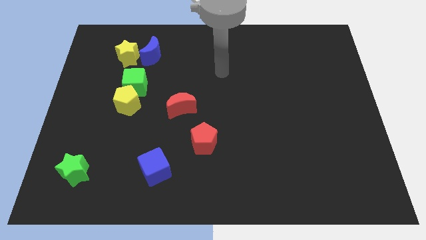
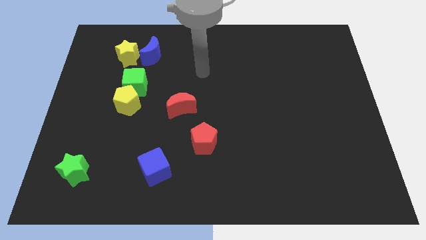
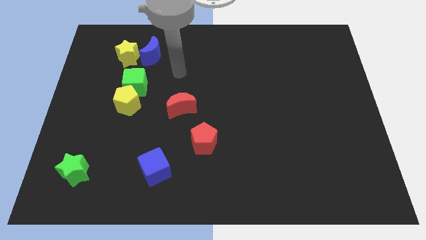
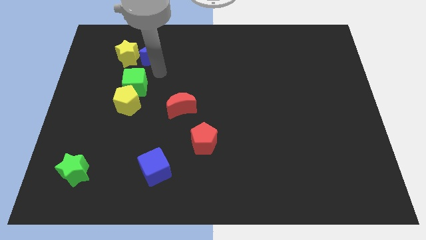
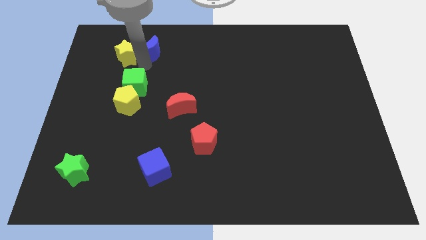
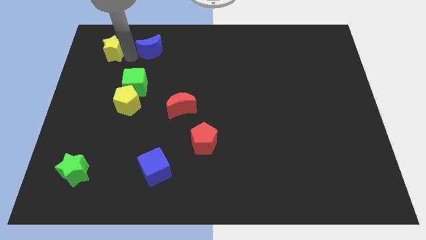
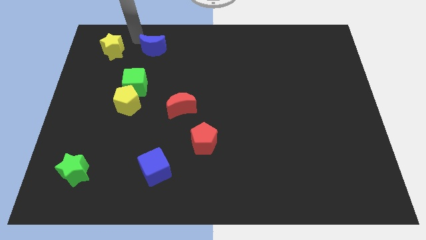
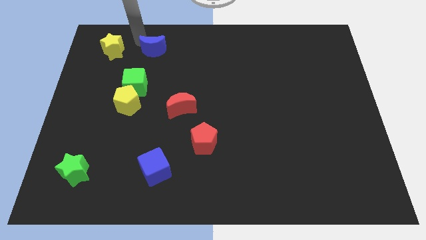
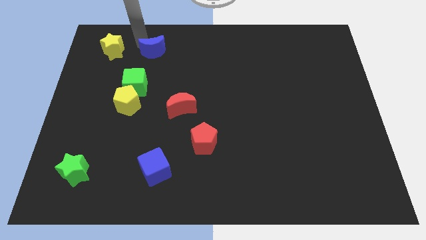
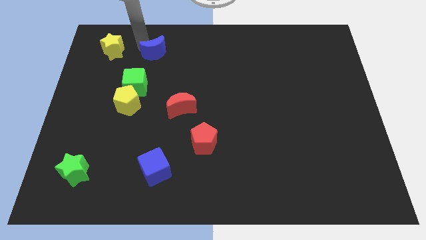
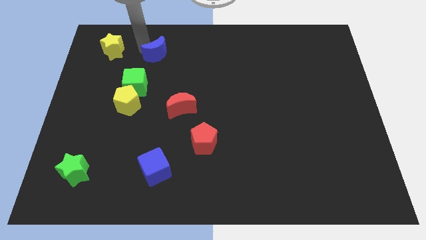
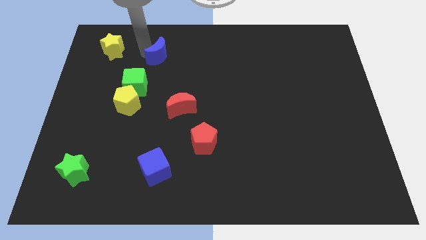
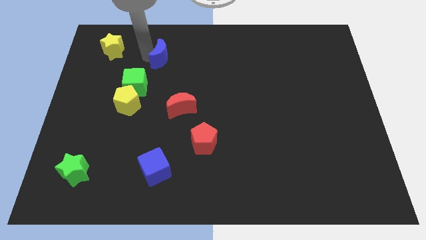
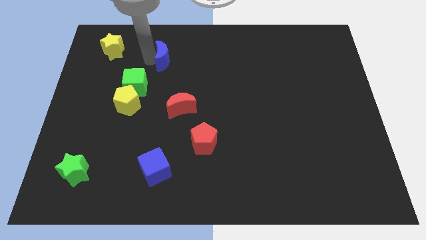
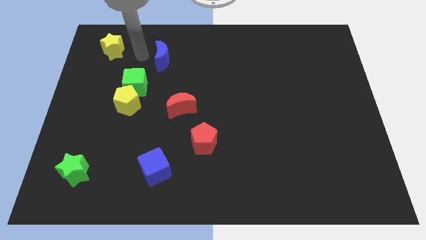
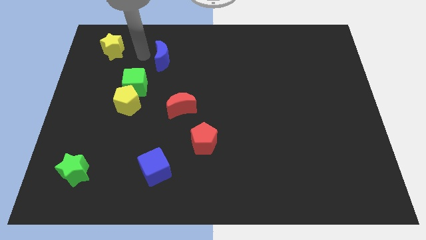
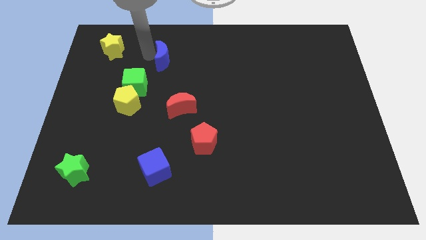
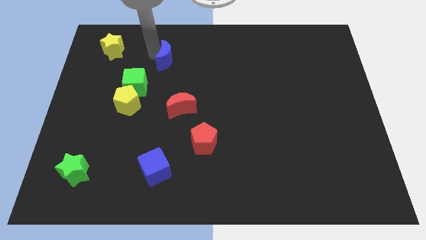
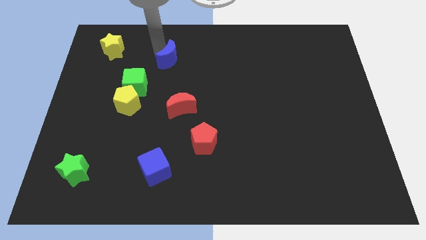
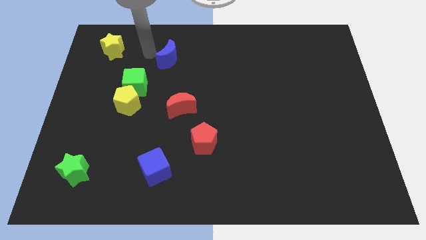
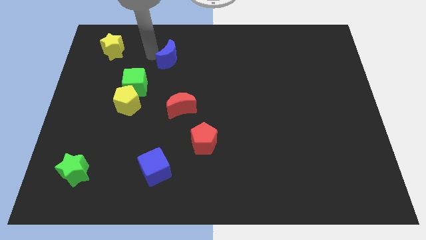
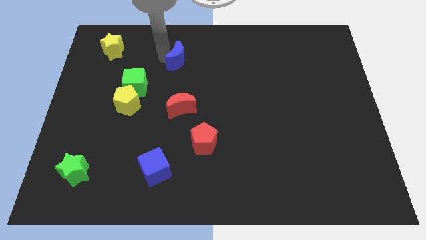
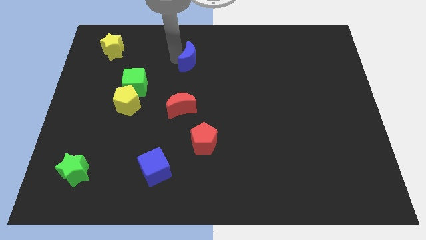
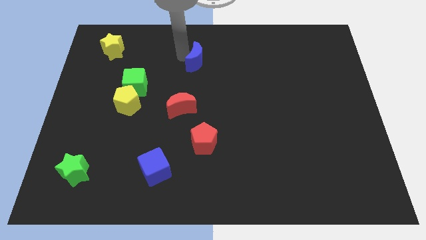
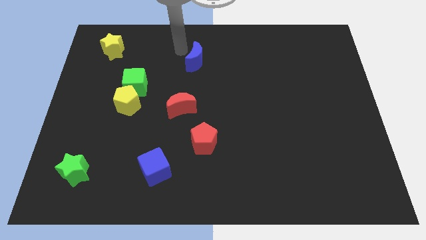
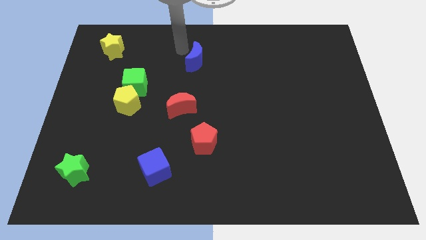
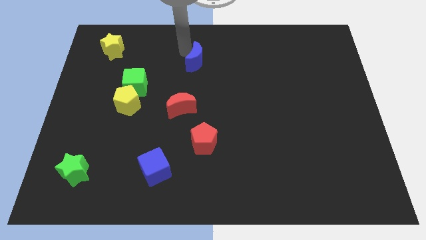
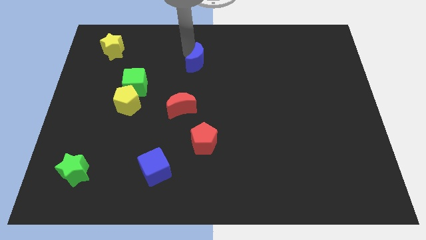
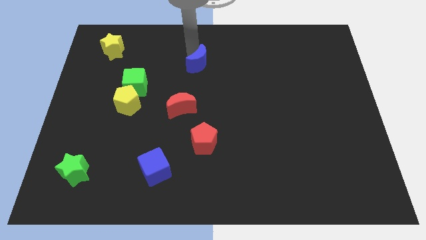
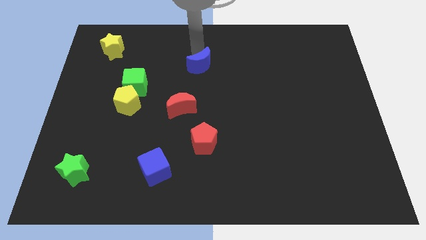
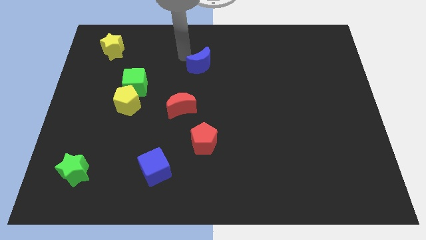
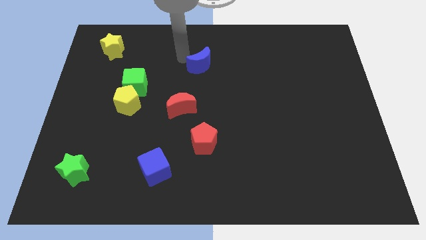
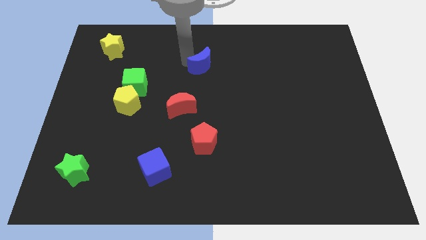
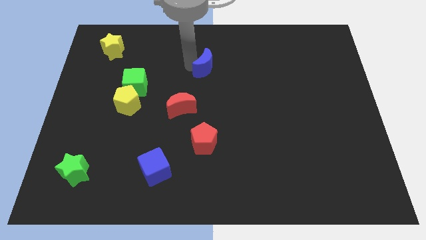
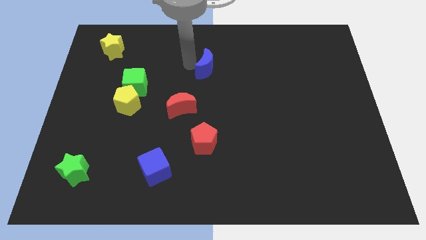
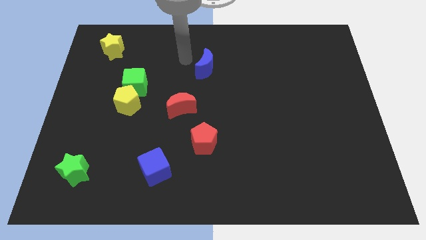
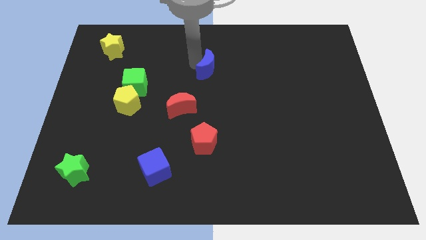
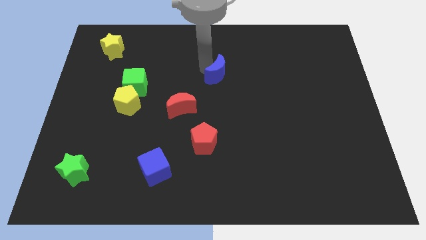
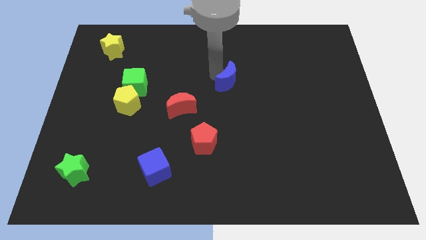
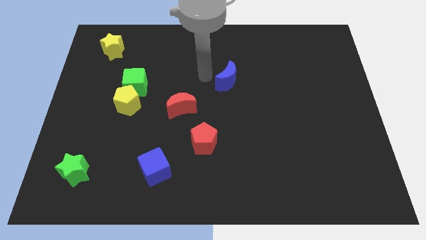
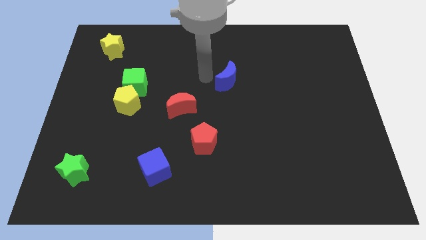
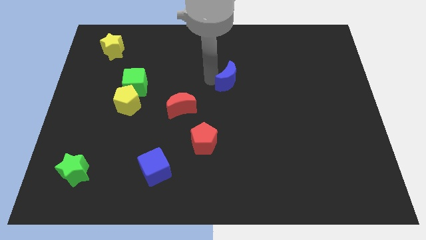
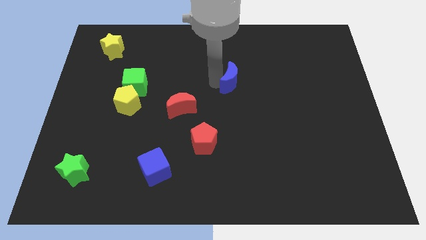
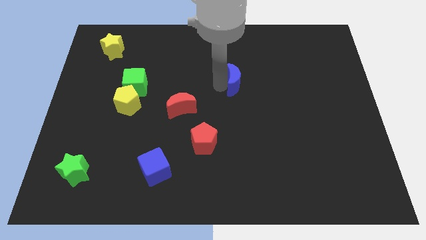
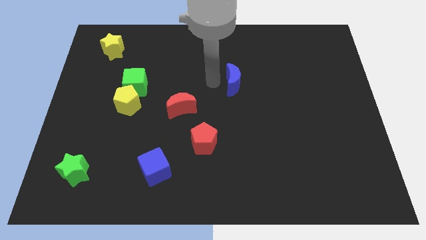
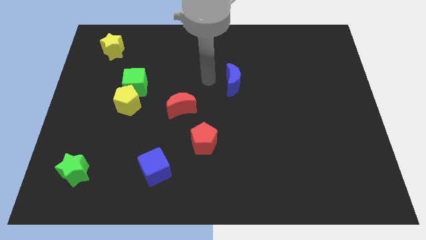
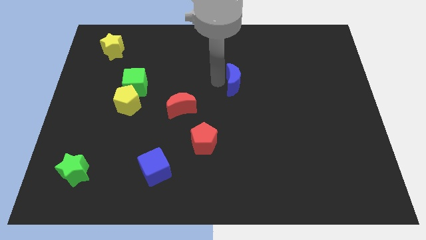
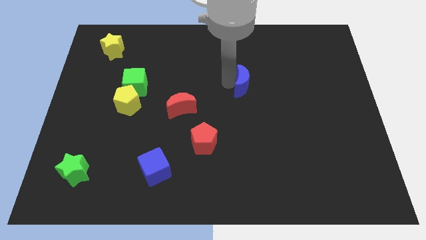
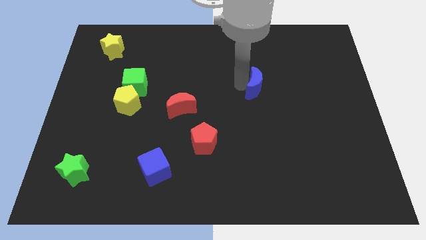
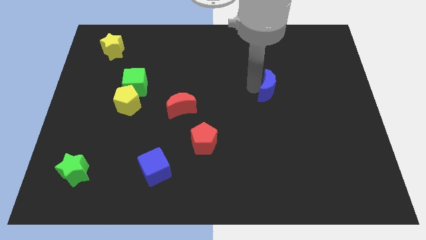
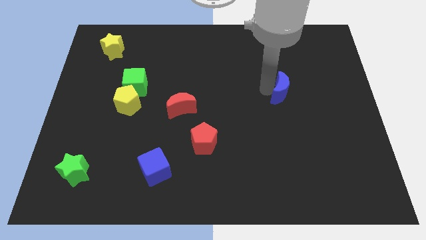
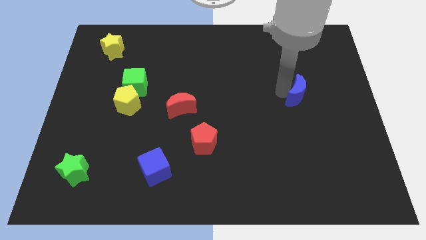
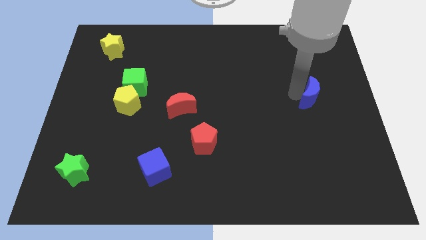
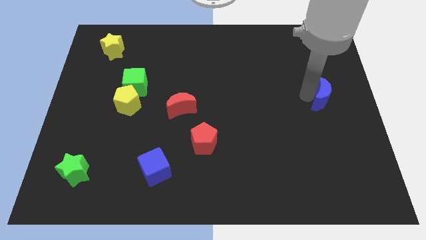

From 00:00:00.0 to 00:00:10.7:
move the blue moon to the right side of the board

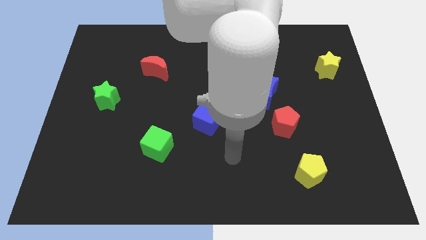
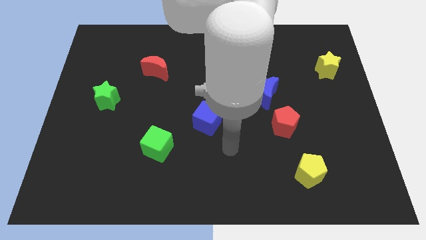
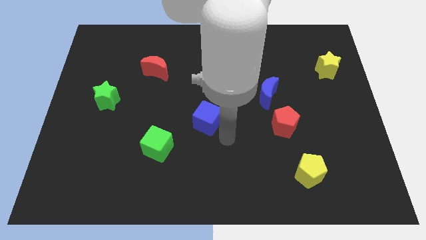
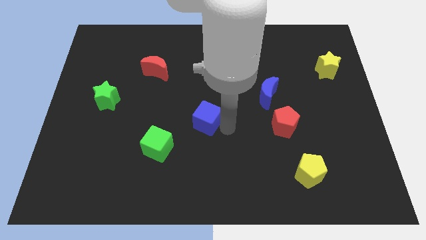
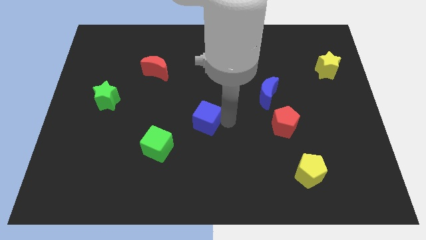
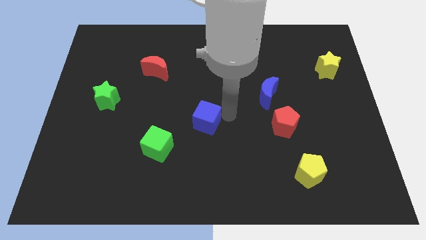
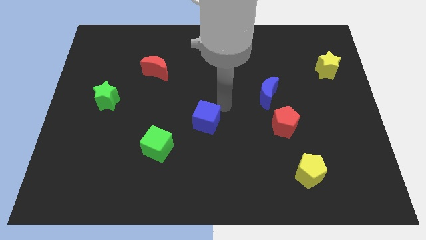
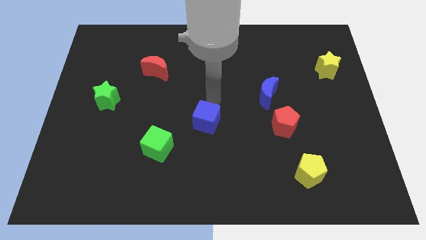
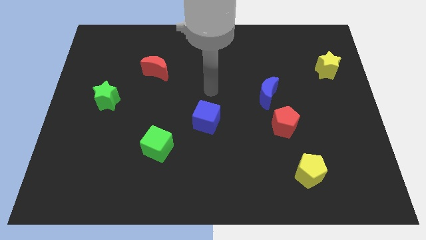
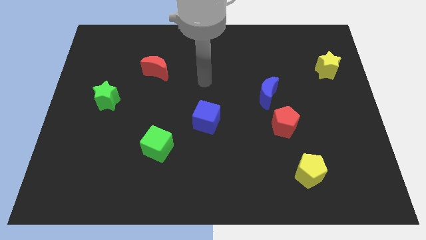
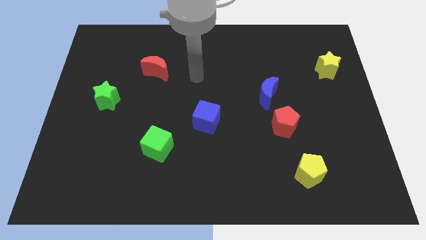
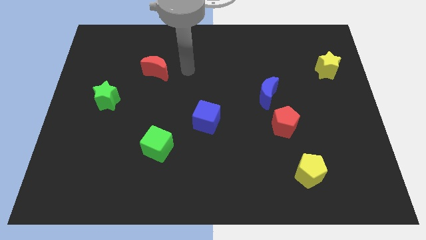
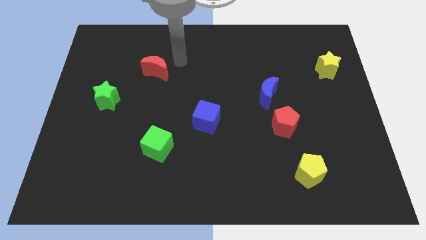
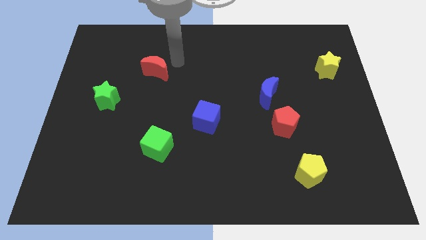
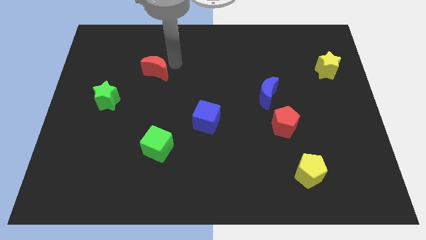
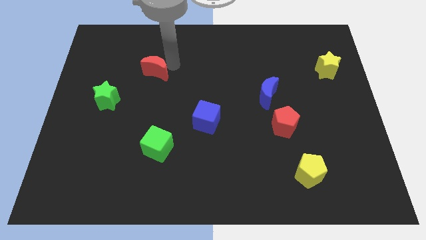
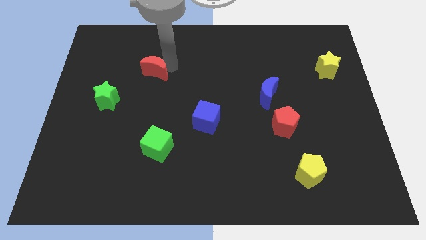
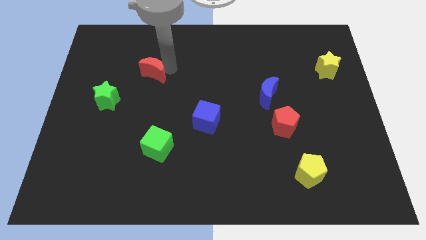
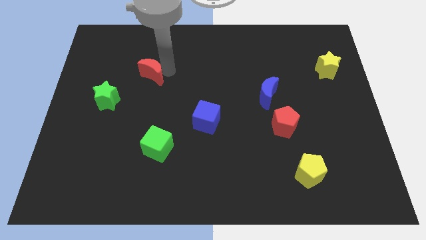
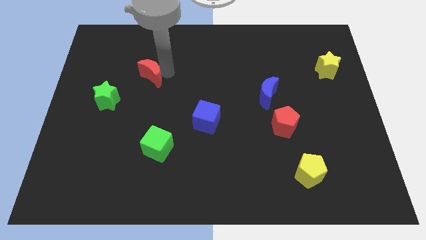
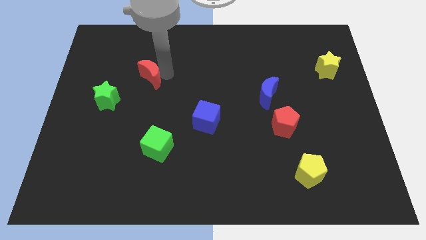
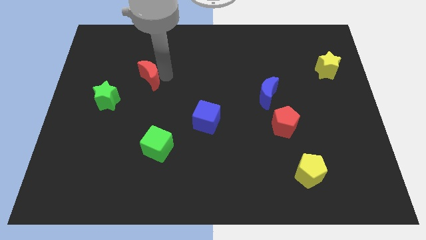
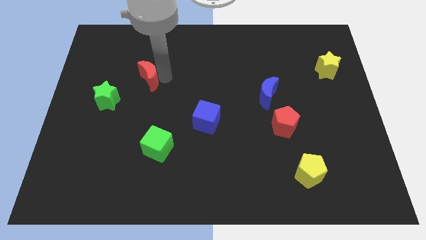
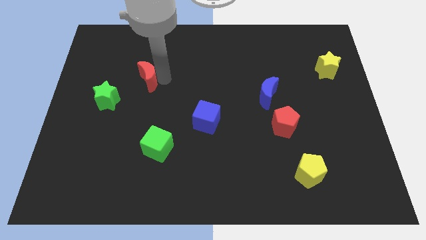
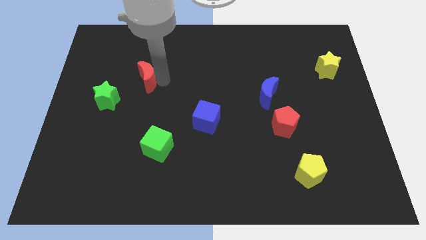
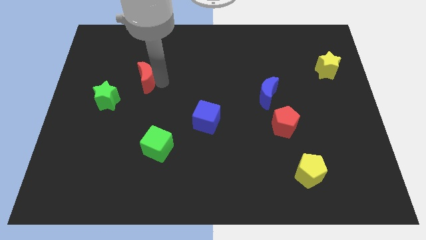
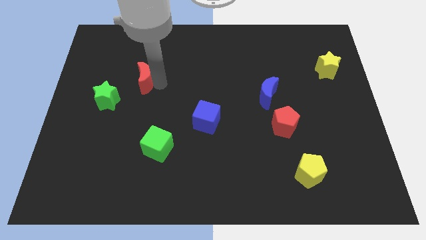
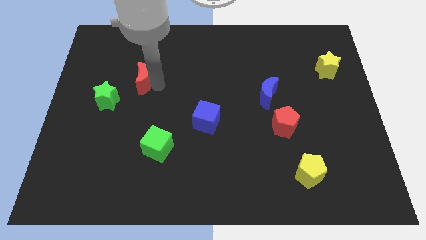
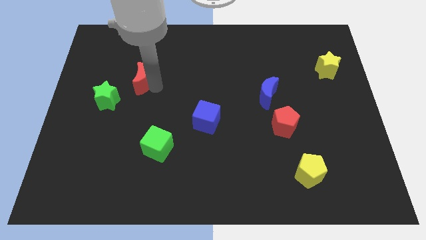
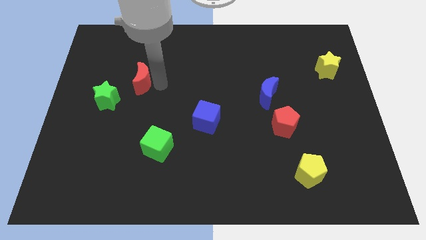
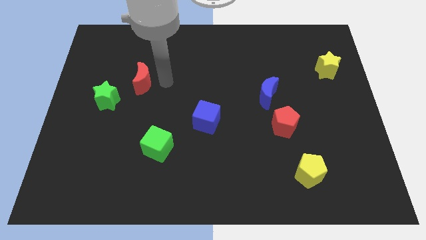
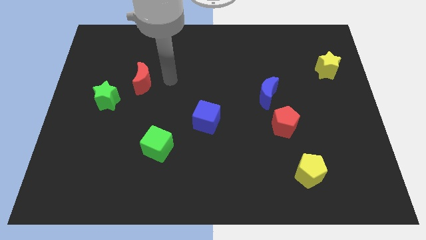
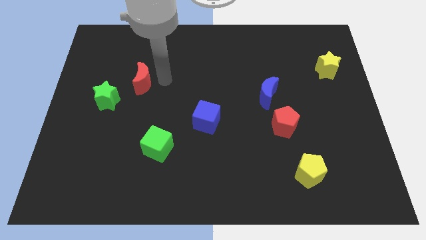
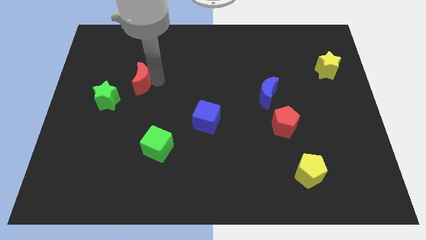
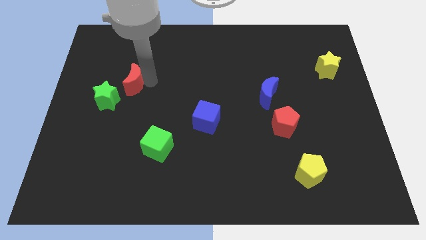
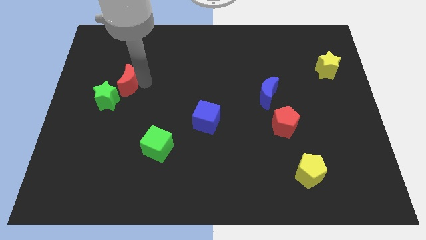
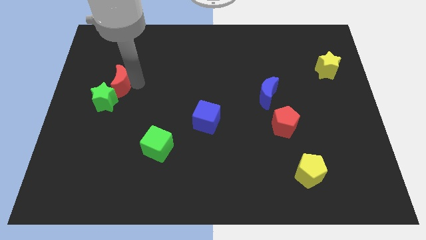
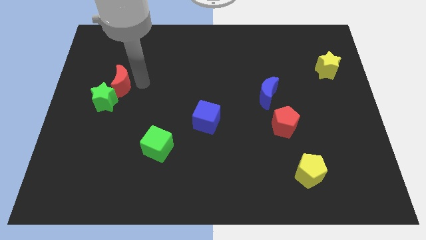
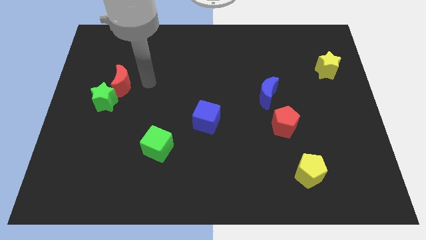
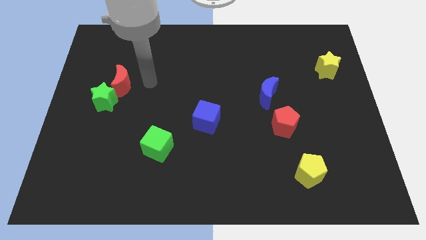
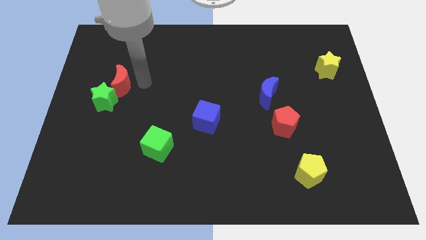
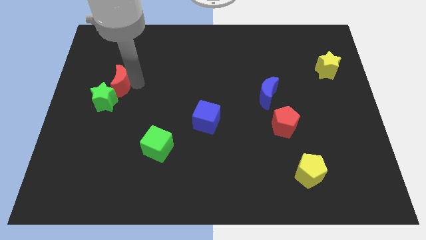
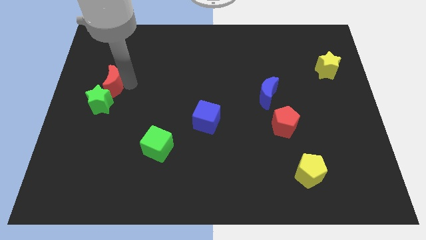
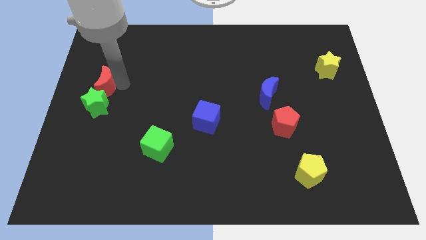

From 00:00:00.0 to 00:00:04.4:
push the red moon to the left side
